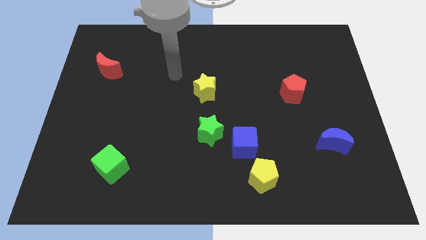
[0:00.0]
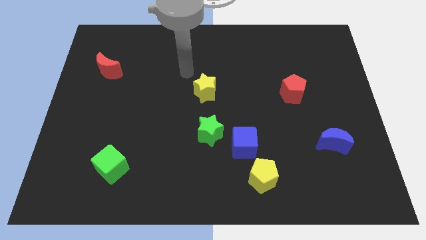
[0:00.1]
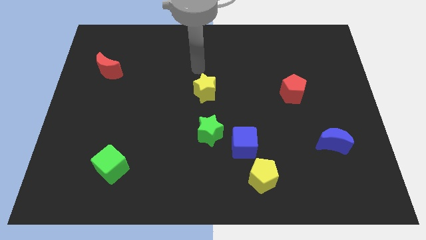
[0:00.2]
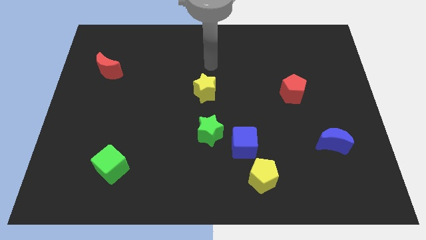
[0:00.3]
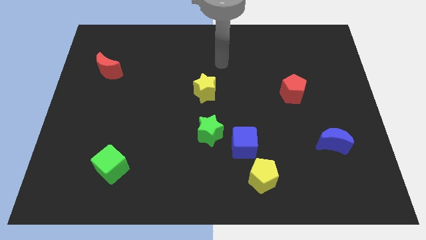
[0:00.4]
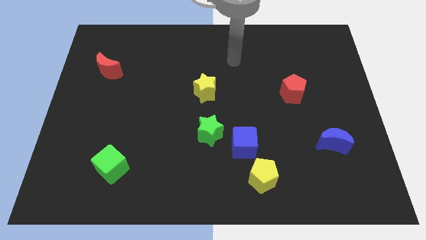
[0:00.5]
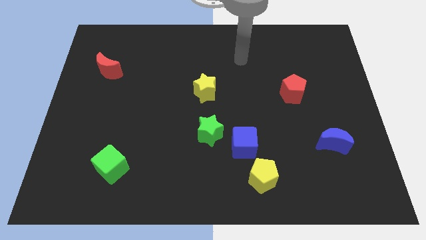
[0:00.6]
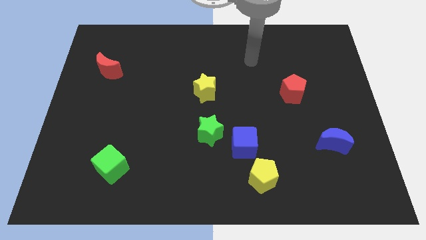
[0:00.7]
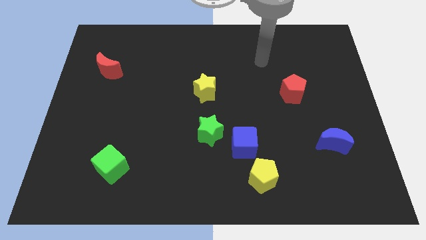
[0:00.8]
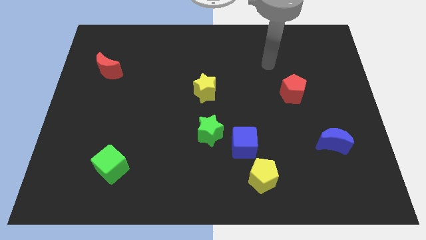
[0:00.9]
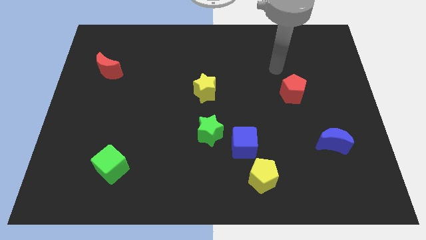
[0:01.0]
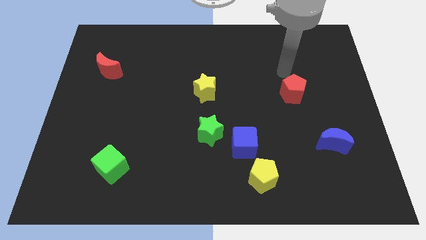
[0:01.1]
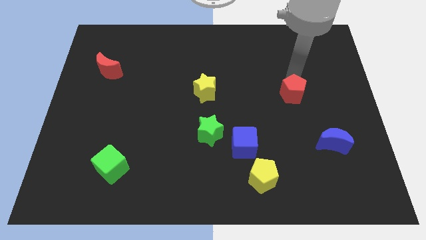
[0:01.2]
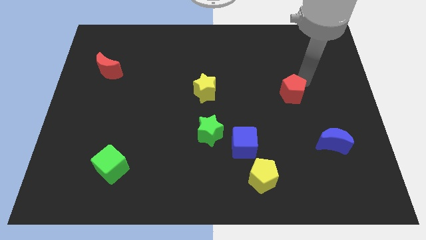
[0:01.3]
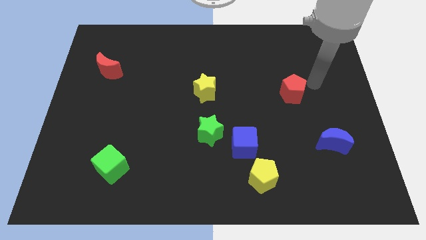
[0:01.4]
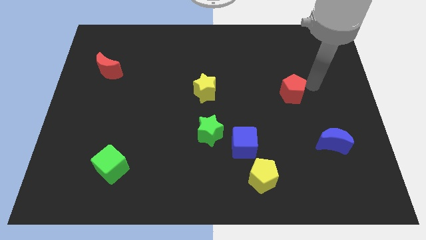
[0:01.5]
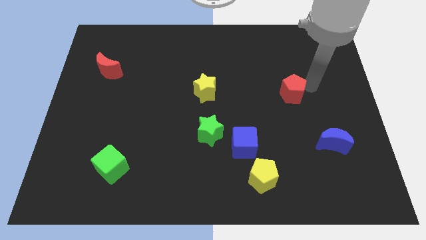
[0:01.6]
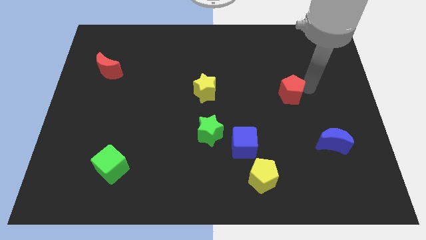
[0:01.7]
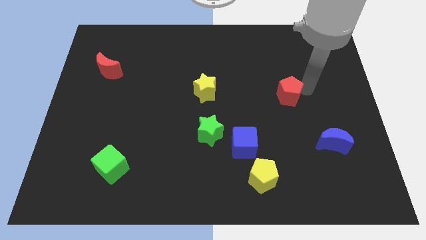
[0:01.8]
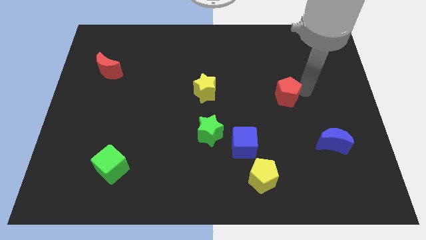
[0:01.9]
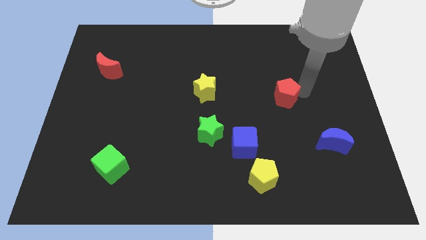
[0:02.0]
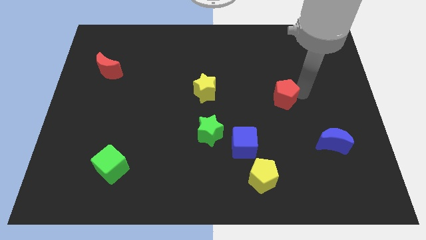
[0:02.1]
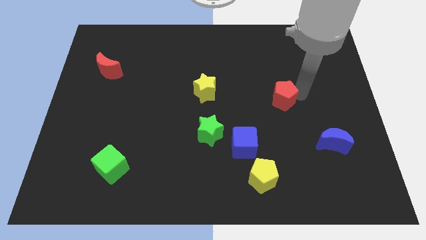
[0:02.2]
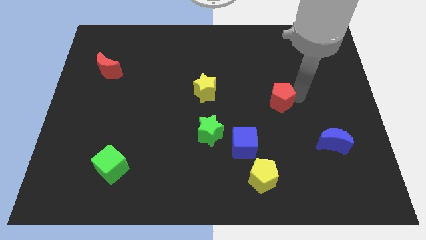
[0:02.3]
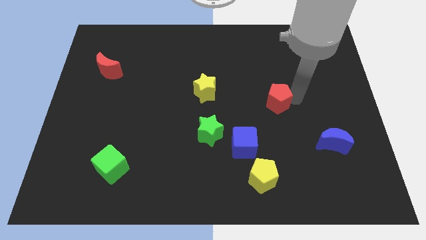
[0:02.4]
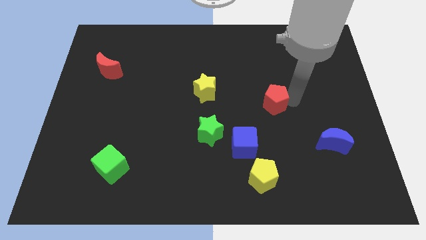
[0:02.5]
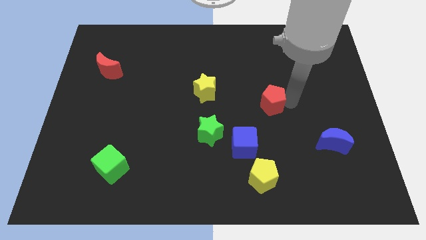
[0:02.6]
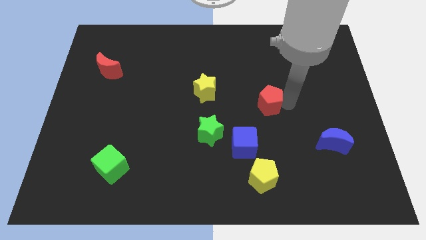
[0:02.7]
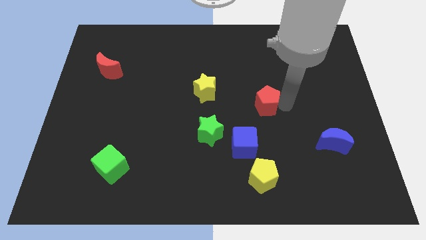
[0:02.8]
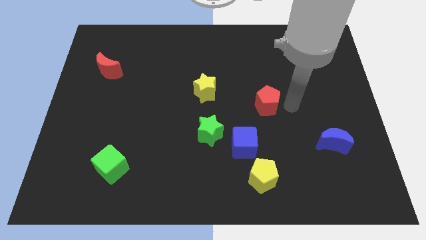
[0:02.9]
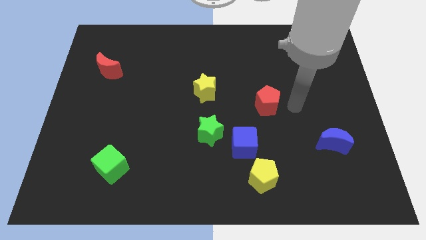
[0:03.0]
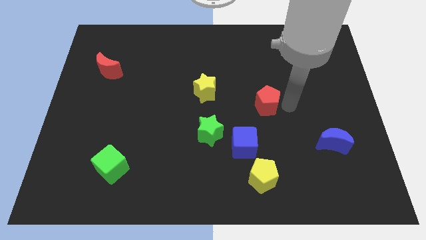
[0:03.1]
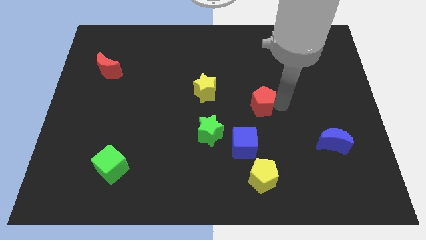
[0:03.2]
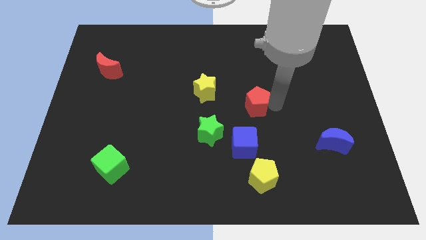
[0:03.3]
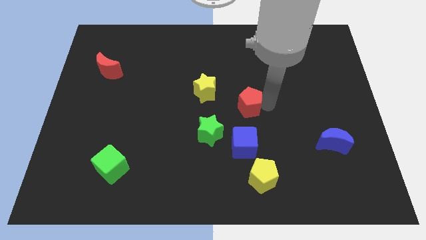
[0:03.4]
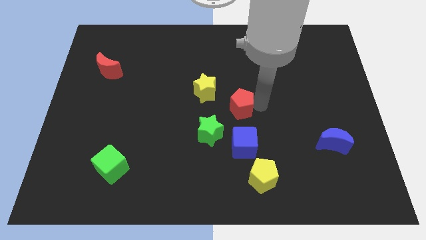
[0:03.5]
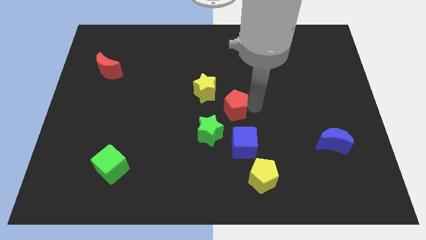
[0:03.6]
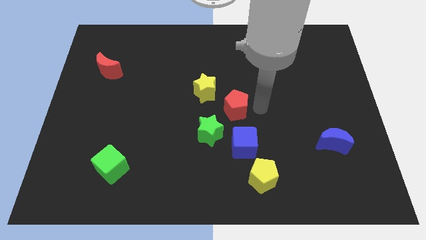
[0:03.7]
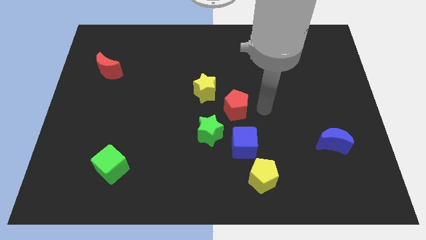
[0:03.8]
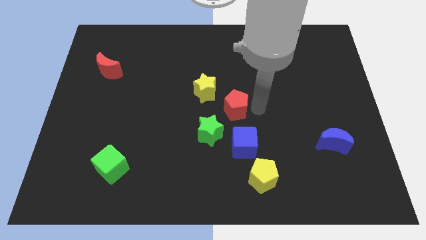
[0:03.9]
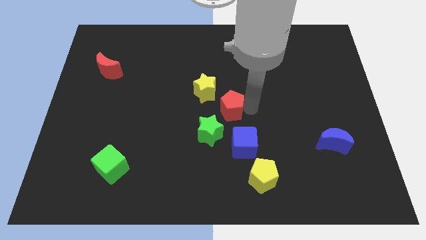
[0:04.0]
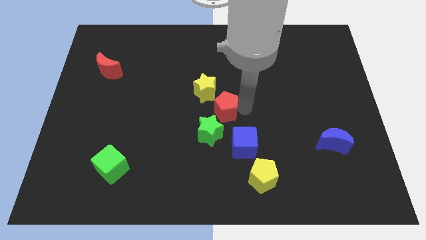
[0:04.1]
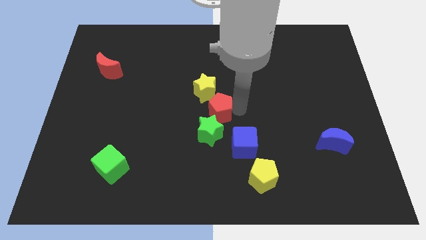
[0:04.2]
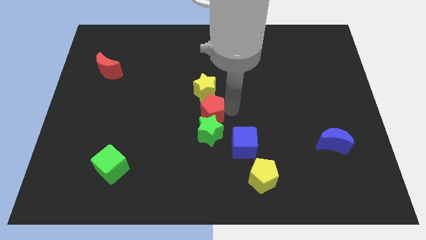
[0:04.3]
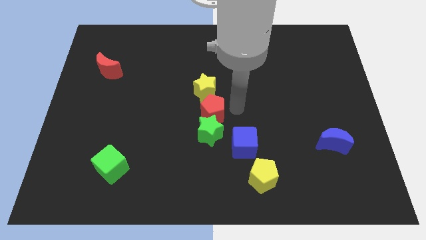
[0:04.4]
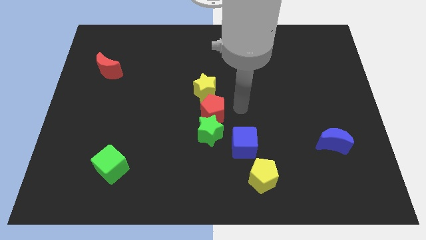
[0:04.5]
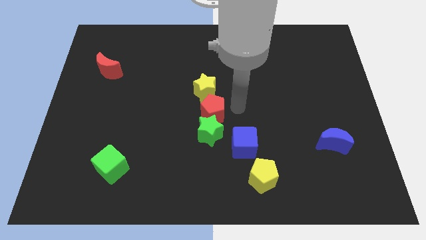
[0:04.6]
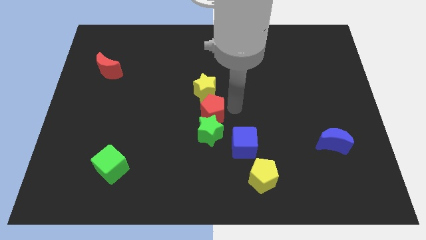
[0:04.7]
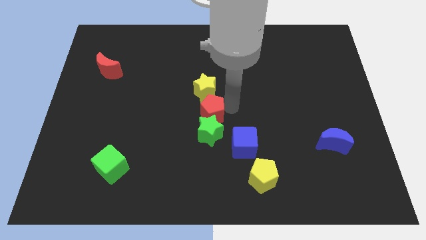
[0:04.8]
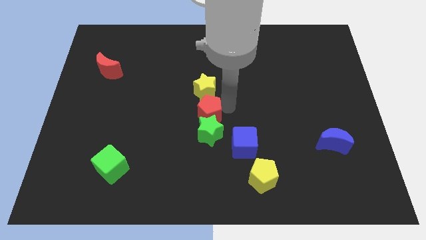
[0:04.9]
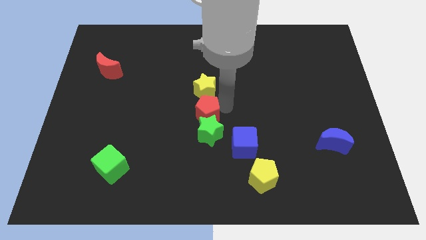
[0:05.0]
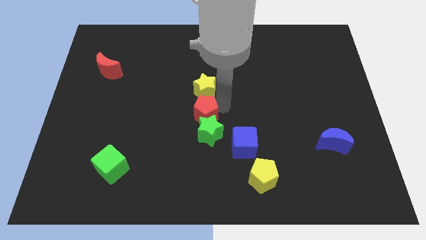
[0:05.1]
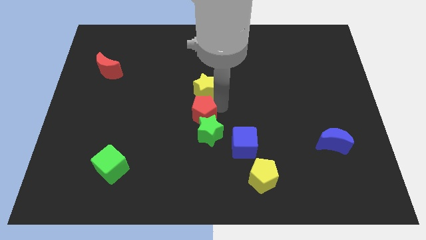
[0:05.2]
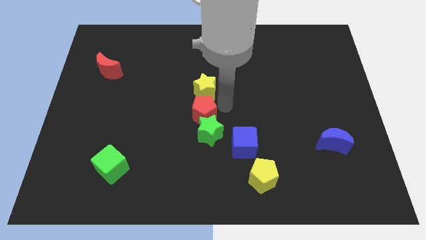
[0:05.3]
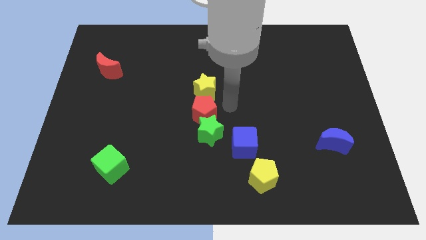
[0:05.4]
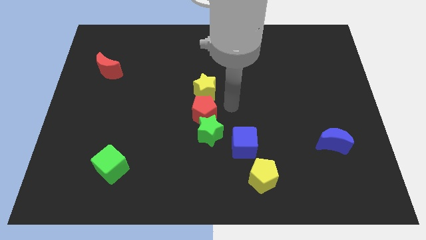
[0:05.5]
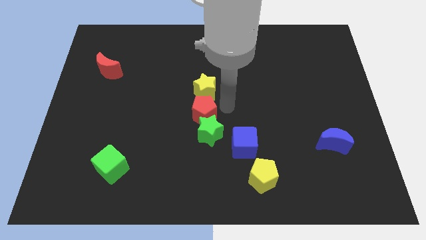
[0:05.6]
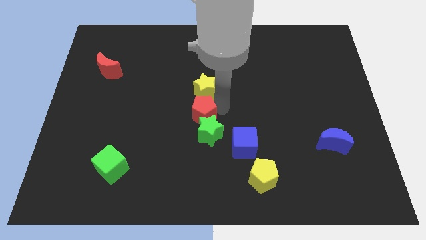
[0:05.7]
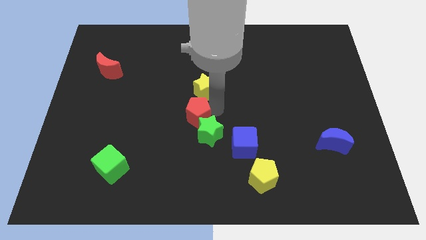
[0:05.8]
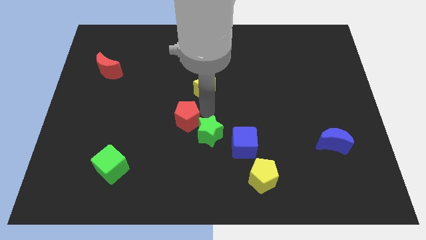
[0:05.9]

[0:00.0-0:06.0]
slide the red pentagon just left of the green star

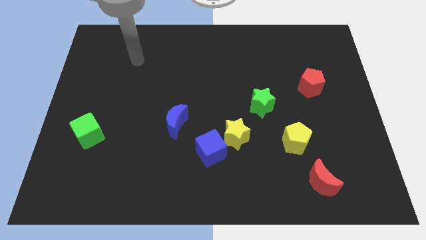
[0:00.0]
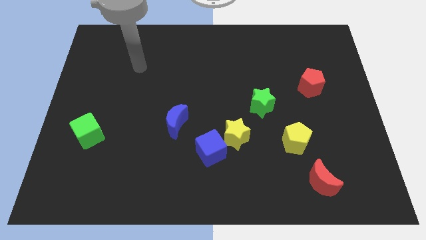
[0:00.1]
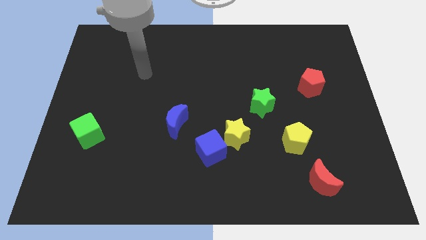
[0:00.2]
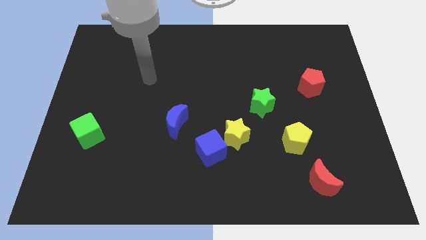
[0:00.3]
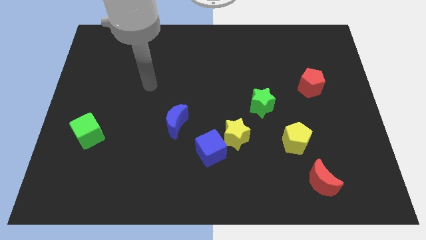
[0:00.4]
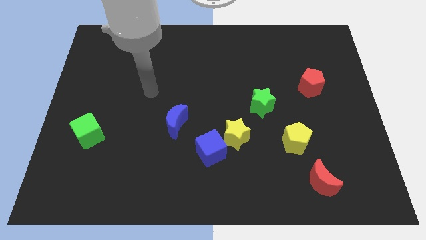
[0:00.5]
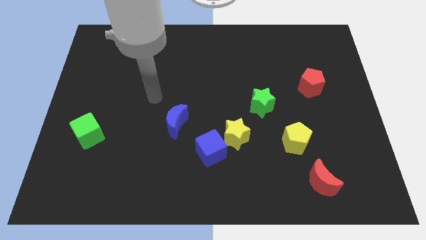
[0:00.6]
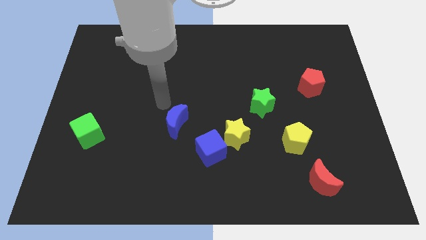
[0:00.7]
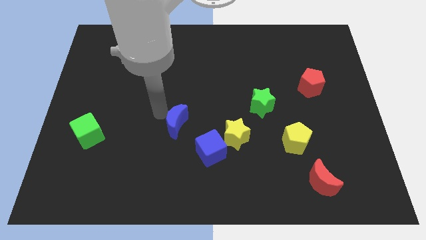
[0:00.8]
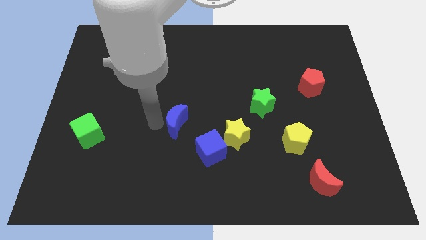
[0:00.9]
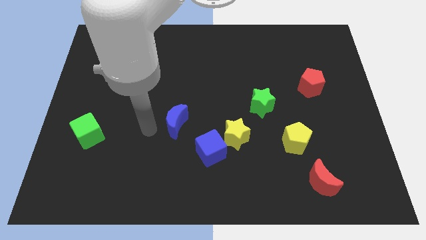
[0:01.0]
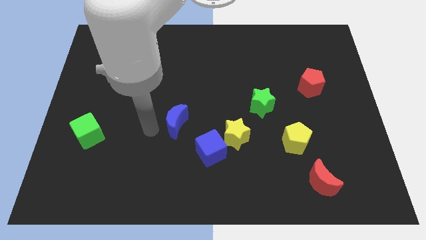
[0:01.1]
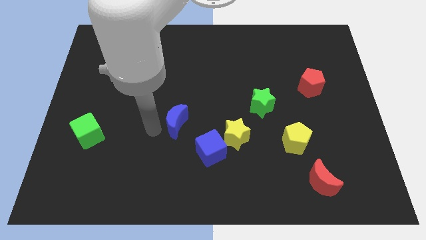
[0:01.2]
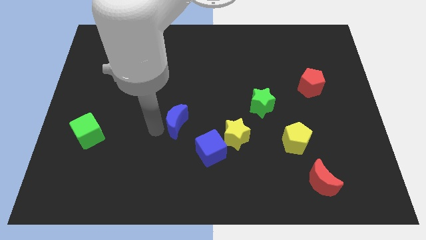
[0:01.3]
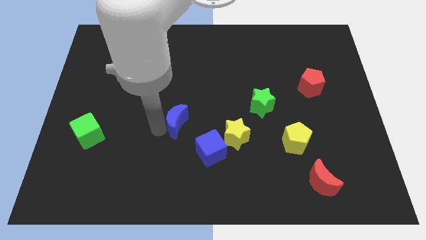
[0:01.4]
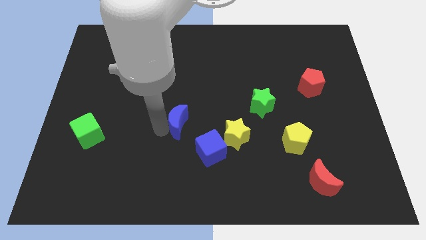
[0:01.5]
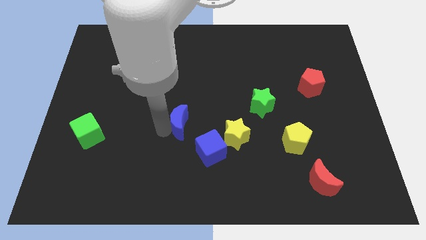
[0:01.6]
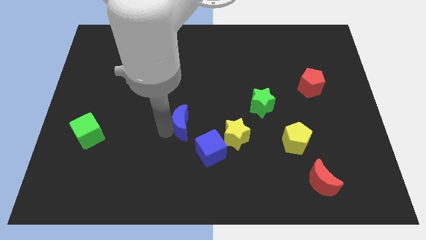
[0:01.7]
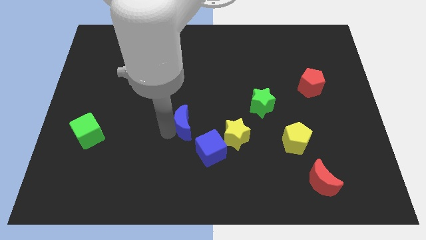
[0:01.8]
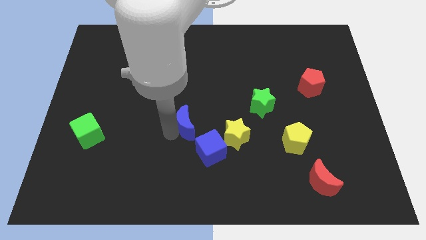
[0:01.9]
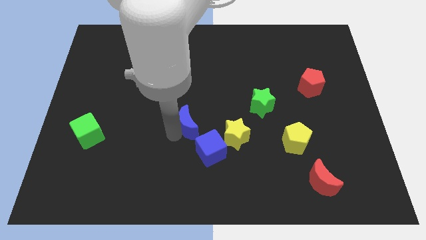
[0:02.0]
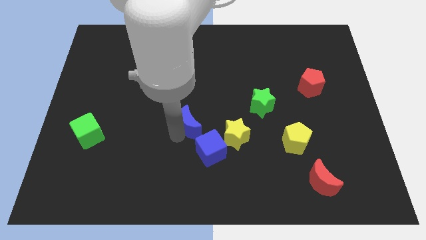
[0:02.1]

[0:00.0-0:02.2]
push the blue moon to the top side of the blue cube
